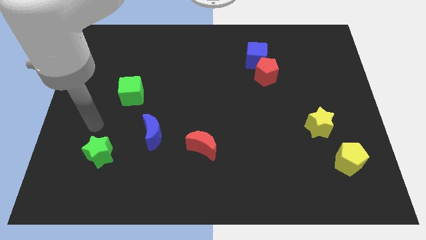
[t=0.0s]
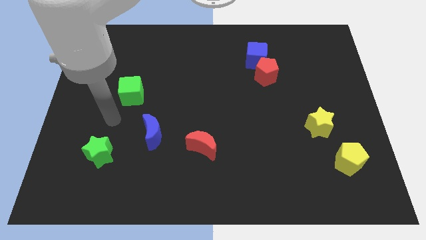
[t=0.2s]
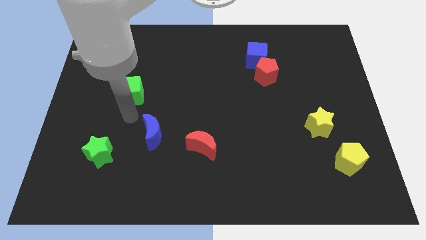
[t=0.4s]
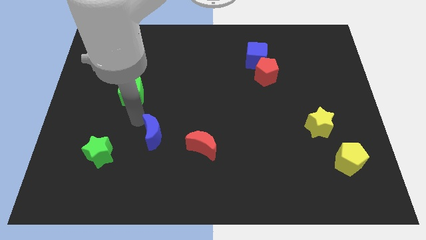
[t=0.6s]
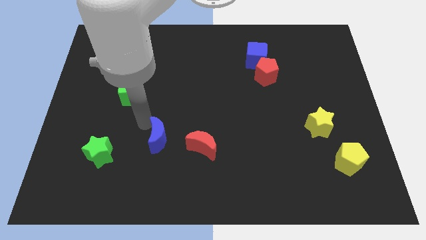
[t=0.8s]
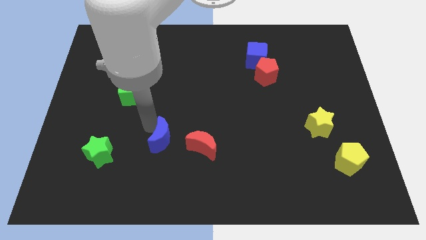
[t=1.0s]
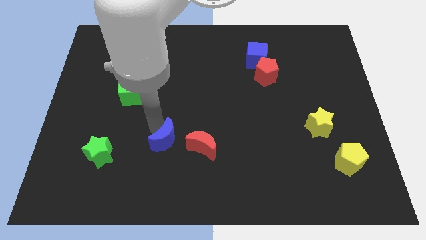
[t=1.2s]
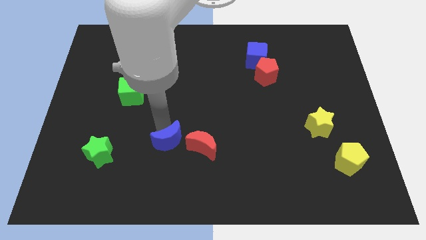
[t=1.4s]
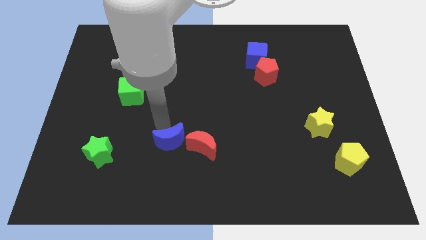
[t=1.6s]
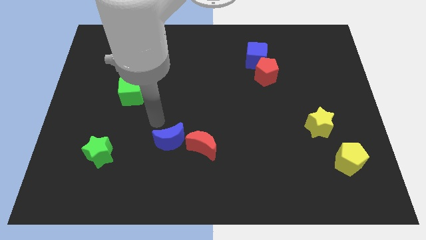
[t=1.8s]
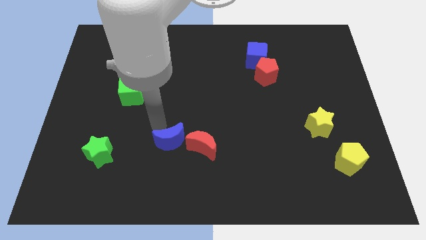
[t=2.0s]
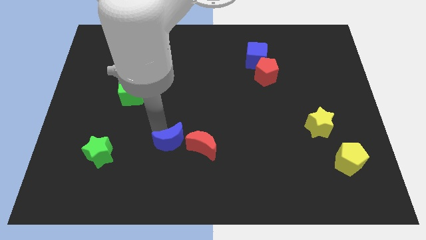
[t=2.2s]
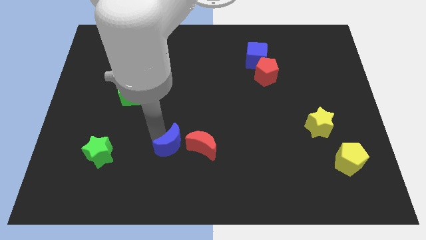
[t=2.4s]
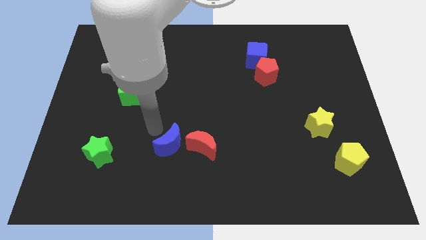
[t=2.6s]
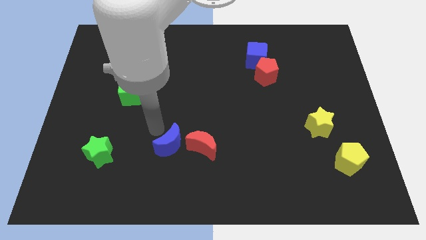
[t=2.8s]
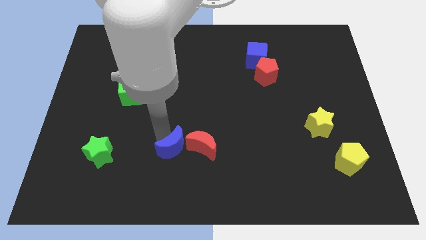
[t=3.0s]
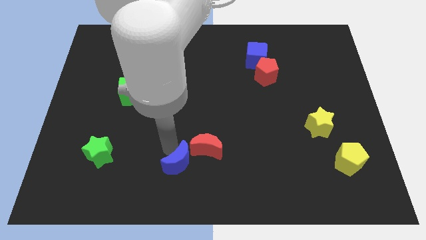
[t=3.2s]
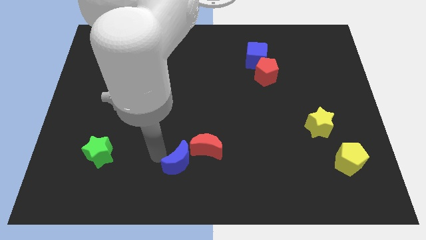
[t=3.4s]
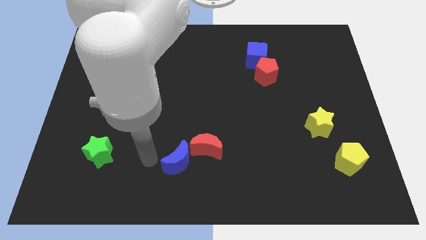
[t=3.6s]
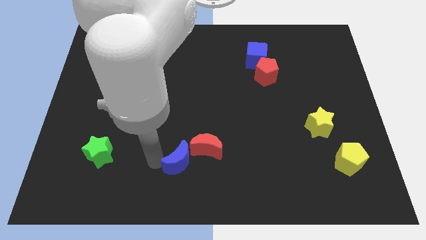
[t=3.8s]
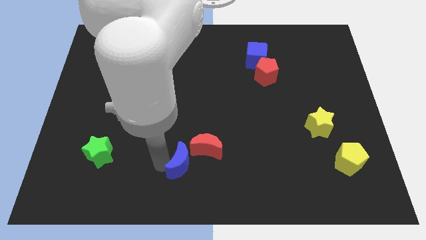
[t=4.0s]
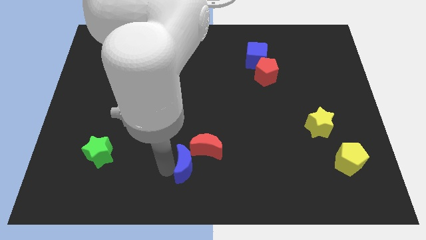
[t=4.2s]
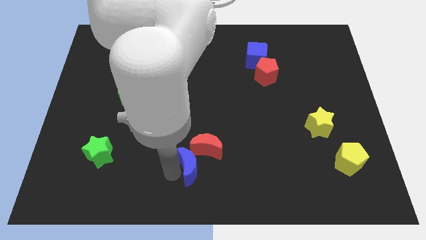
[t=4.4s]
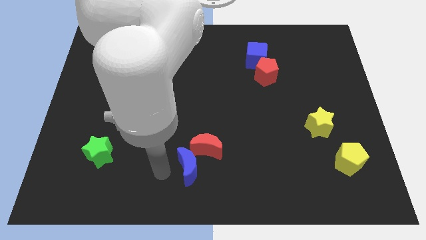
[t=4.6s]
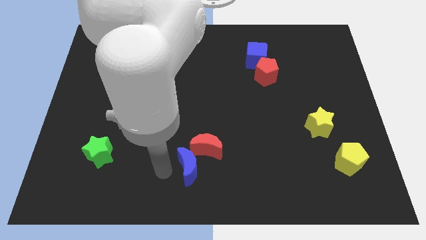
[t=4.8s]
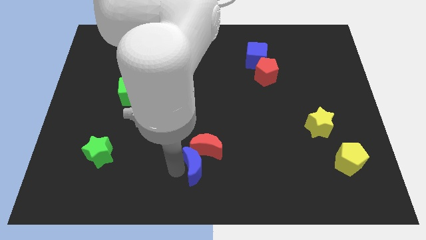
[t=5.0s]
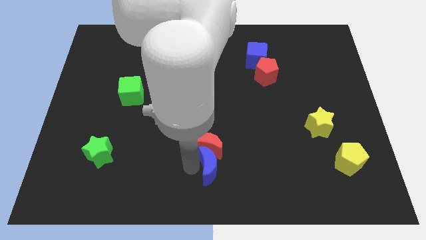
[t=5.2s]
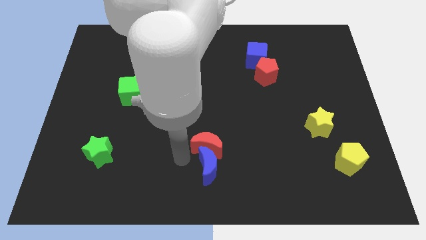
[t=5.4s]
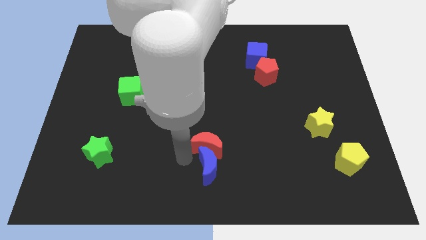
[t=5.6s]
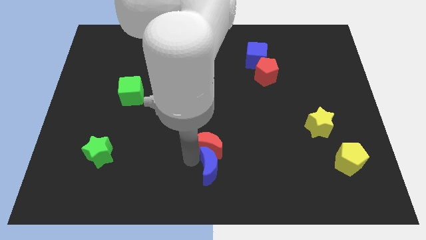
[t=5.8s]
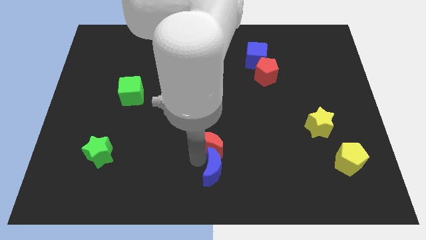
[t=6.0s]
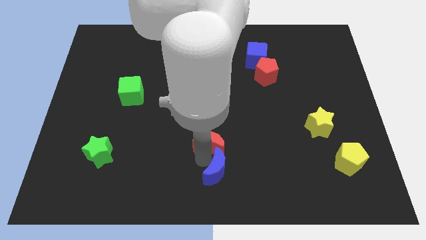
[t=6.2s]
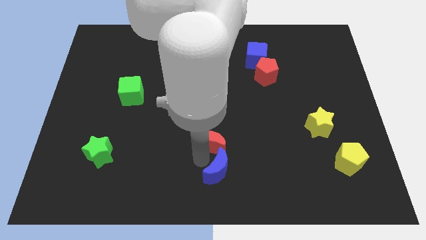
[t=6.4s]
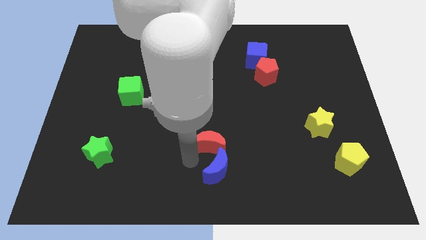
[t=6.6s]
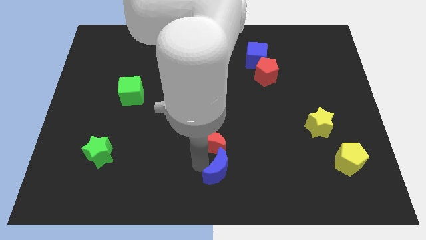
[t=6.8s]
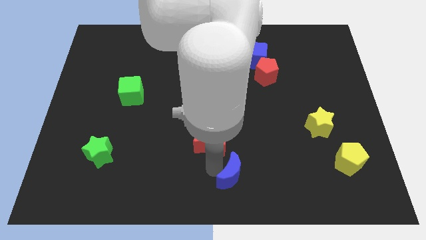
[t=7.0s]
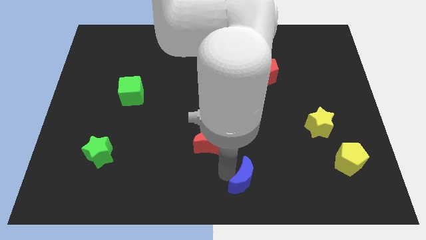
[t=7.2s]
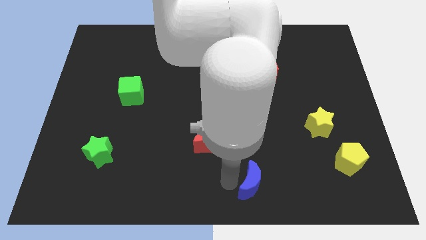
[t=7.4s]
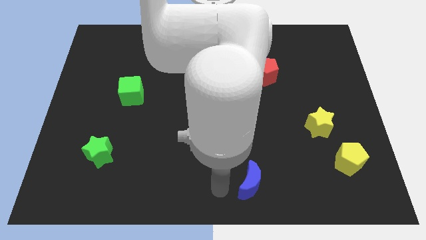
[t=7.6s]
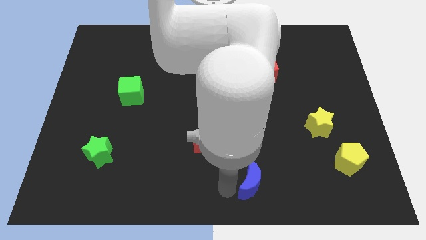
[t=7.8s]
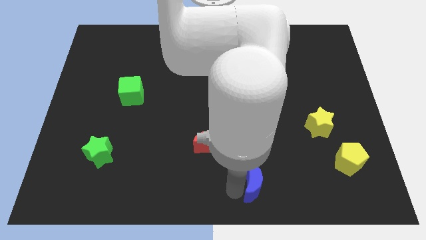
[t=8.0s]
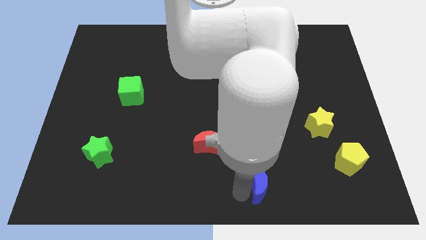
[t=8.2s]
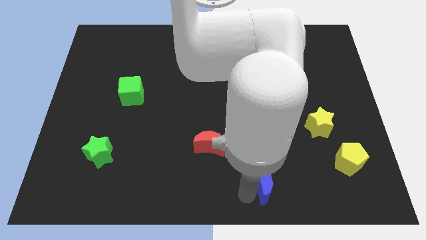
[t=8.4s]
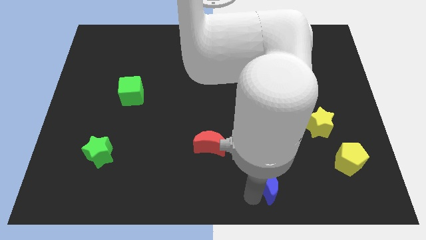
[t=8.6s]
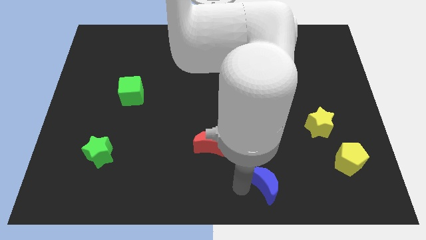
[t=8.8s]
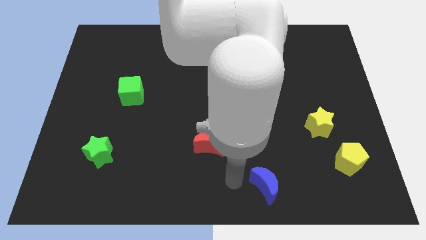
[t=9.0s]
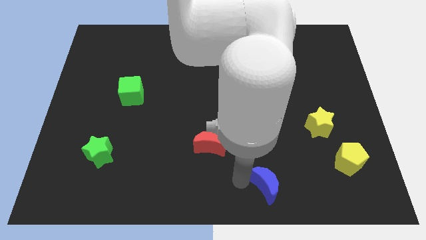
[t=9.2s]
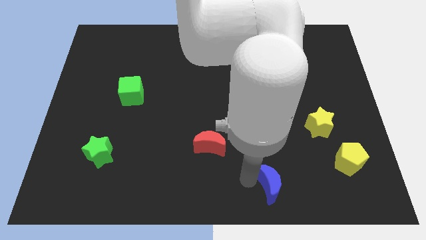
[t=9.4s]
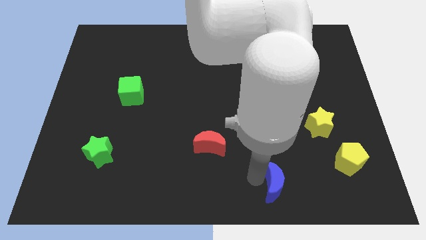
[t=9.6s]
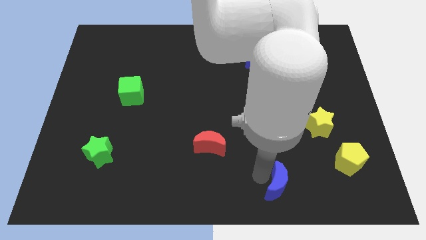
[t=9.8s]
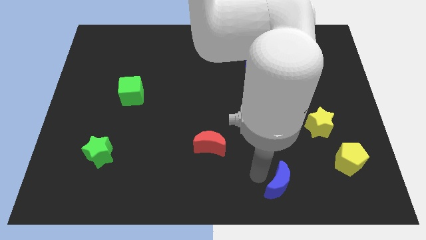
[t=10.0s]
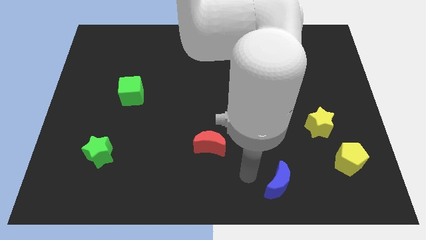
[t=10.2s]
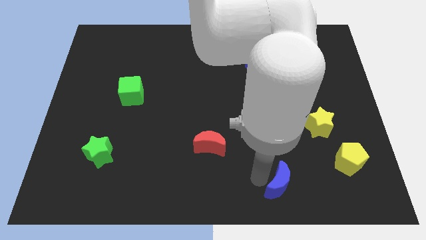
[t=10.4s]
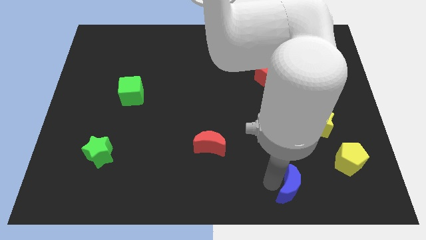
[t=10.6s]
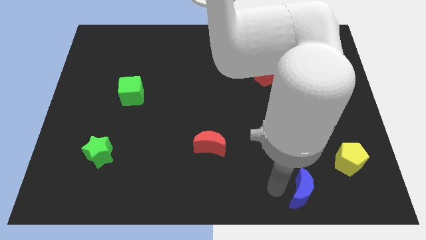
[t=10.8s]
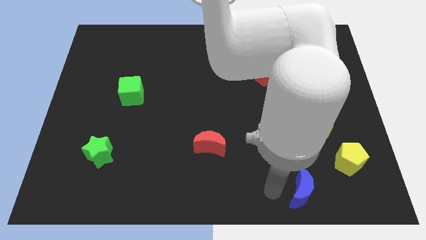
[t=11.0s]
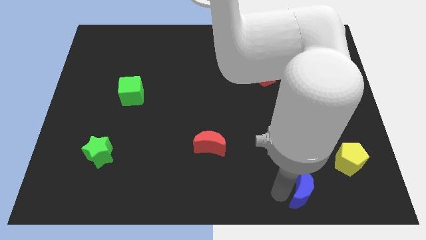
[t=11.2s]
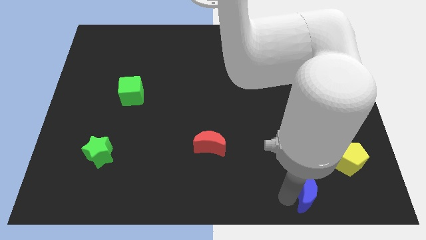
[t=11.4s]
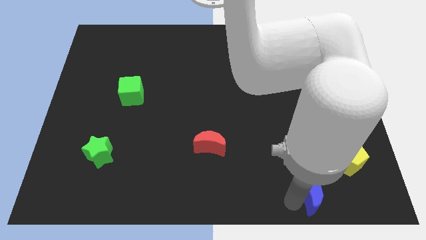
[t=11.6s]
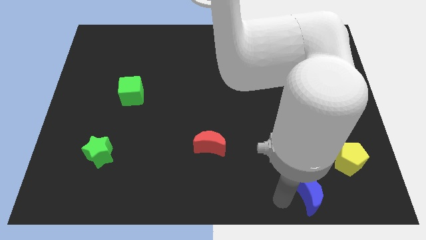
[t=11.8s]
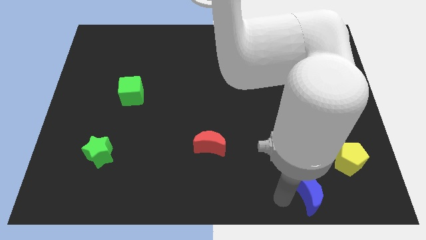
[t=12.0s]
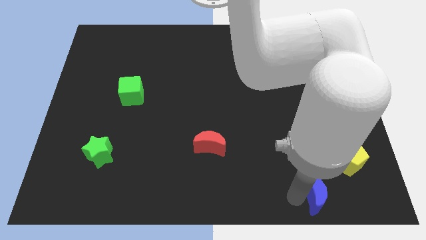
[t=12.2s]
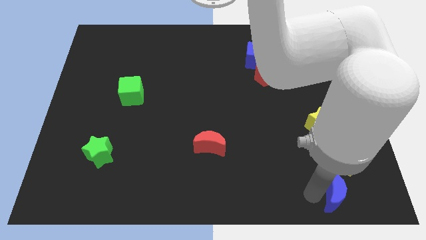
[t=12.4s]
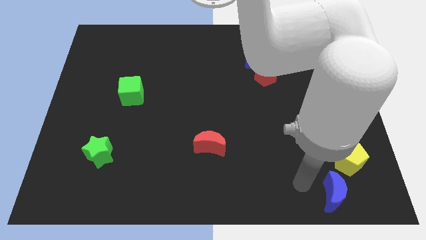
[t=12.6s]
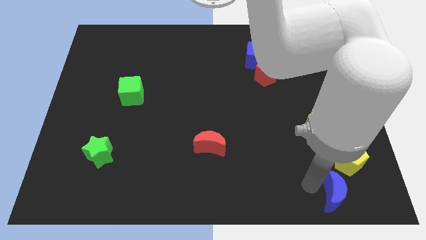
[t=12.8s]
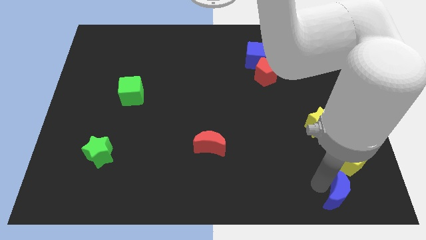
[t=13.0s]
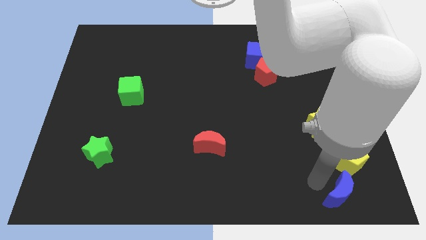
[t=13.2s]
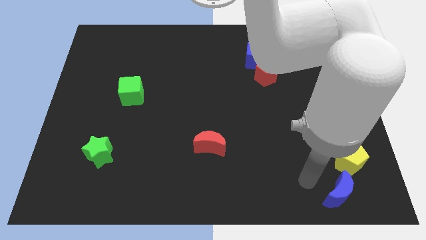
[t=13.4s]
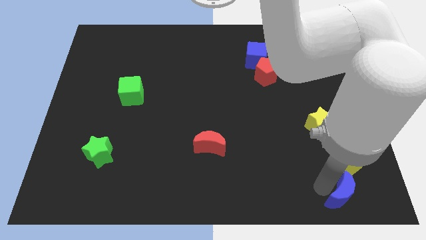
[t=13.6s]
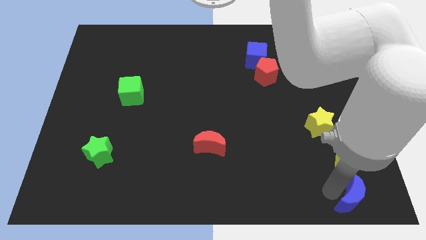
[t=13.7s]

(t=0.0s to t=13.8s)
put the blue moon to the lower right corner
